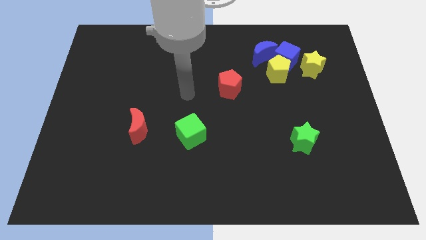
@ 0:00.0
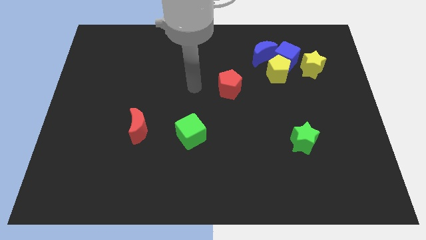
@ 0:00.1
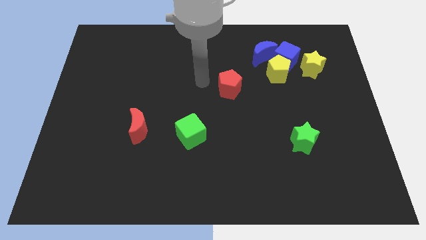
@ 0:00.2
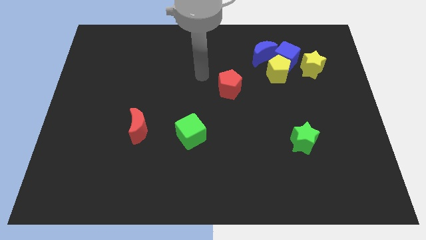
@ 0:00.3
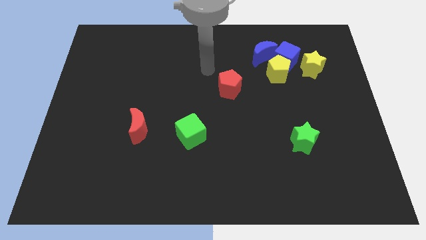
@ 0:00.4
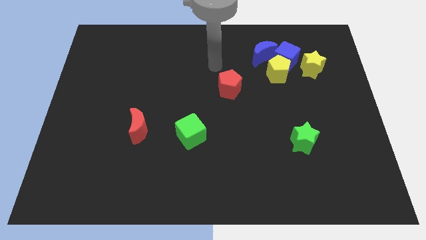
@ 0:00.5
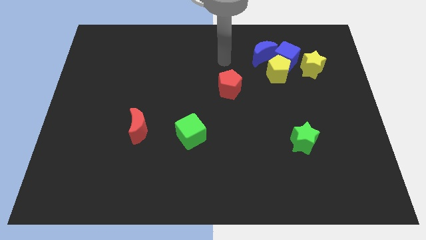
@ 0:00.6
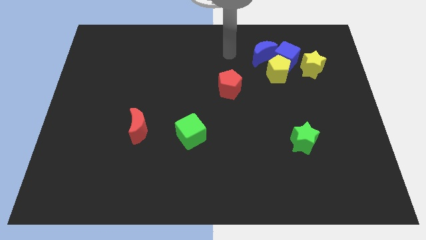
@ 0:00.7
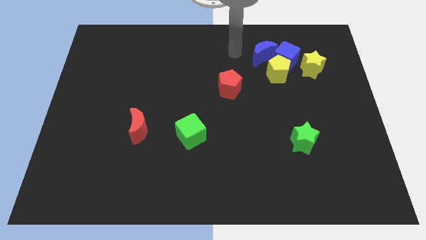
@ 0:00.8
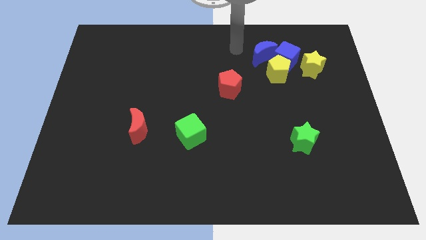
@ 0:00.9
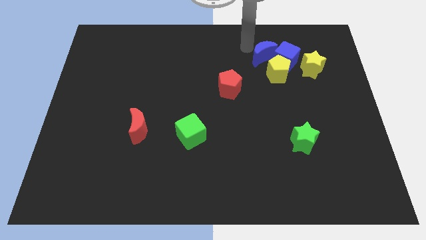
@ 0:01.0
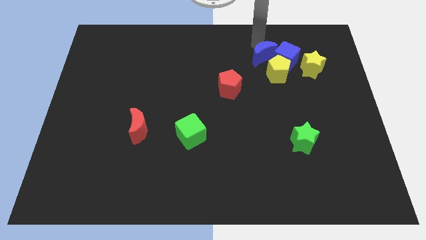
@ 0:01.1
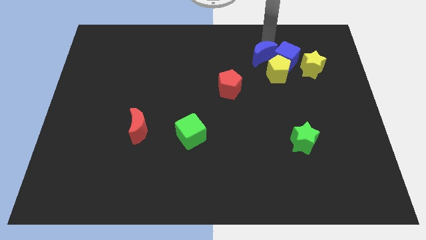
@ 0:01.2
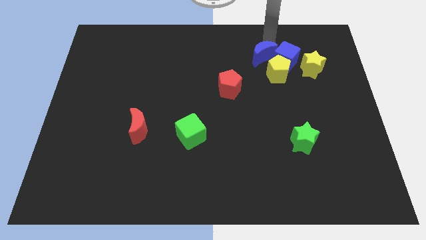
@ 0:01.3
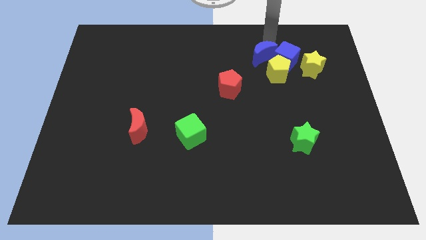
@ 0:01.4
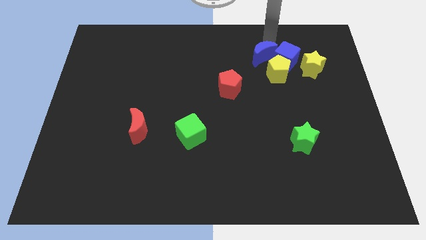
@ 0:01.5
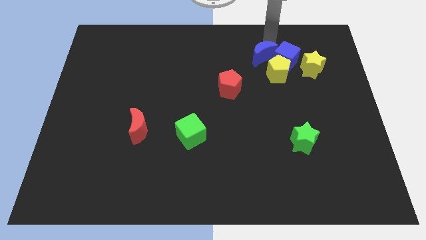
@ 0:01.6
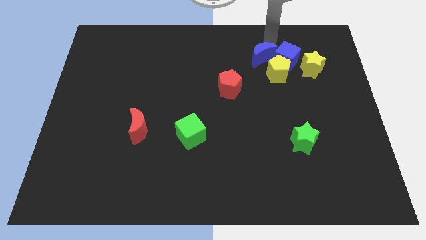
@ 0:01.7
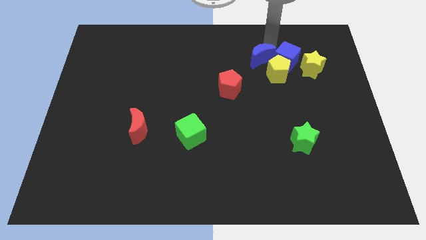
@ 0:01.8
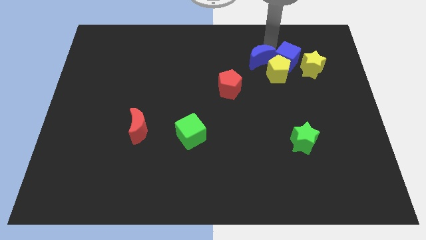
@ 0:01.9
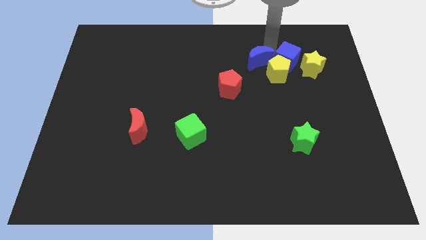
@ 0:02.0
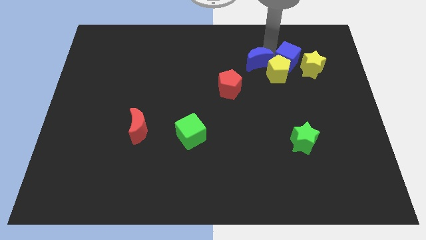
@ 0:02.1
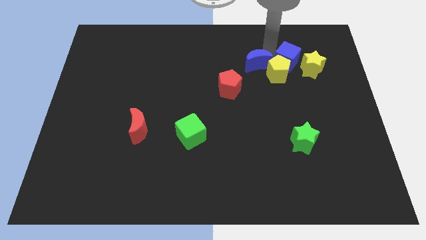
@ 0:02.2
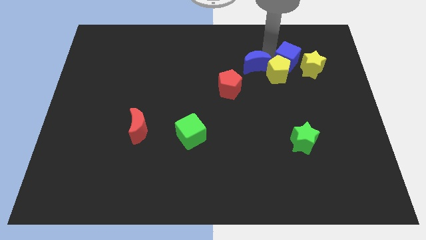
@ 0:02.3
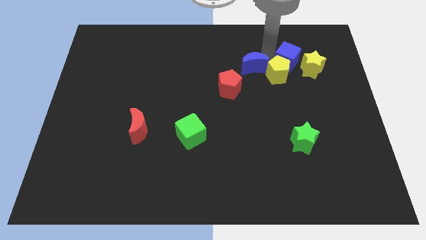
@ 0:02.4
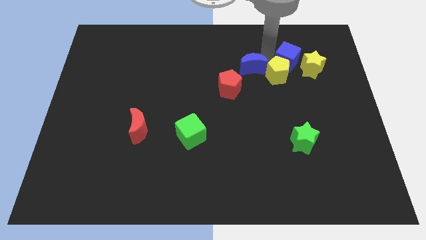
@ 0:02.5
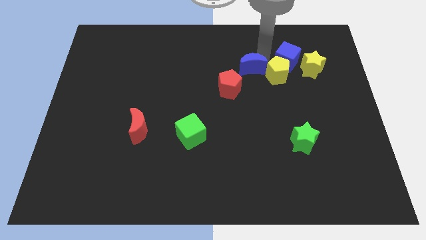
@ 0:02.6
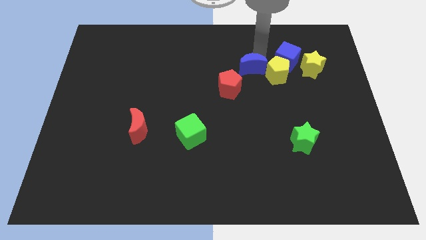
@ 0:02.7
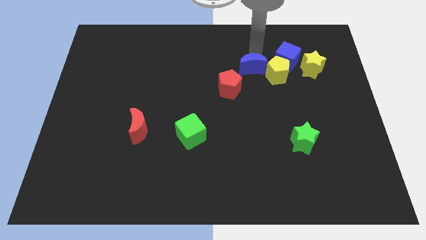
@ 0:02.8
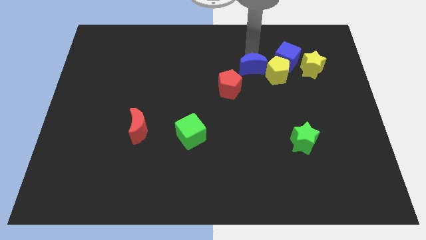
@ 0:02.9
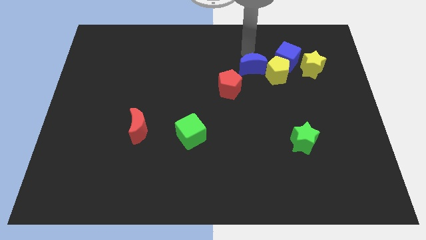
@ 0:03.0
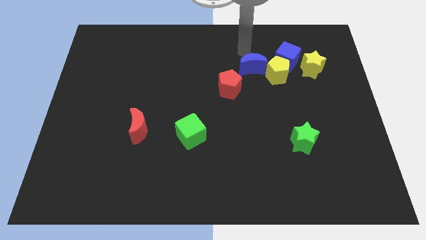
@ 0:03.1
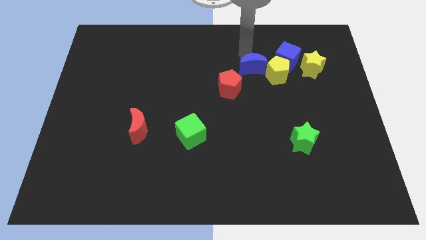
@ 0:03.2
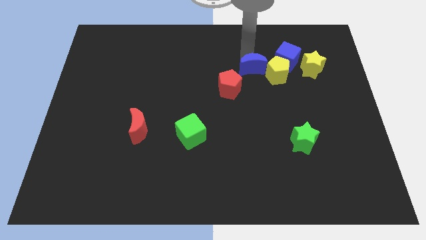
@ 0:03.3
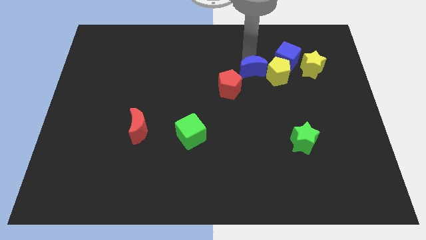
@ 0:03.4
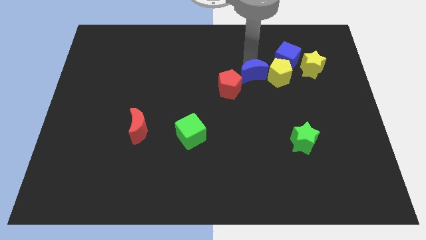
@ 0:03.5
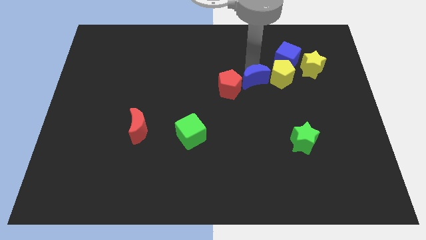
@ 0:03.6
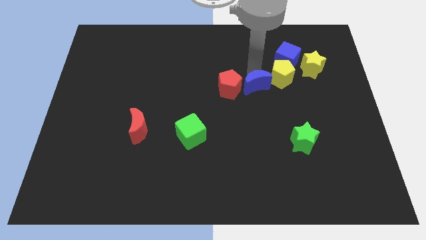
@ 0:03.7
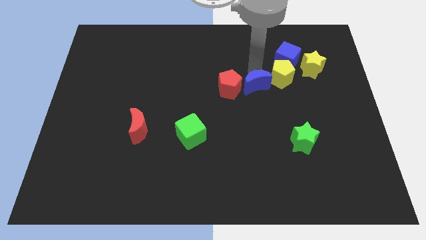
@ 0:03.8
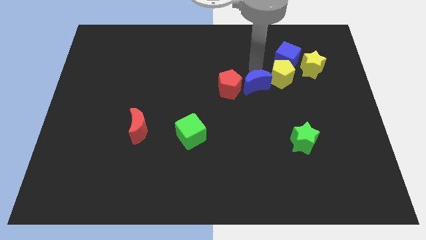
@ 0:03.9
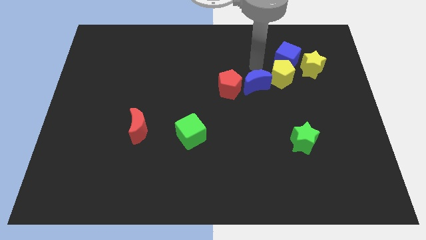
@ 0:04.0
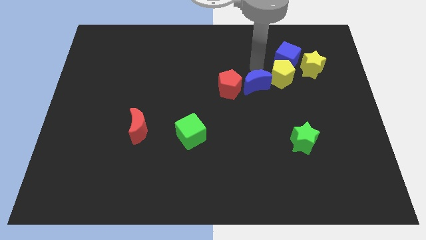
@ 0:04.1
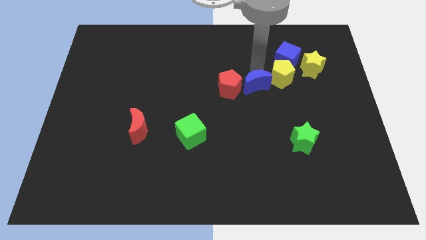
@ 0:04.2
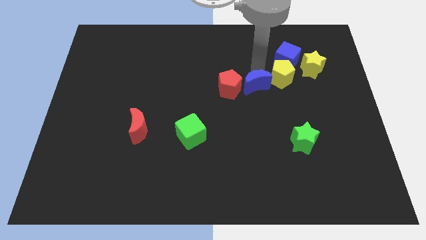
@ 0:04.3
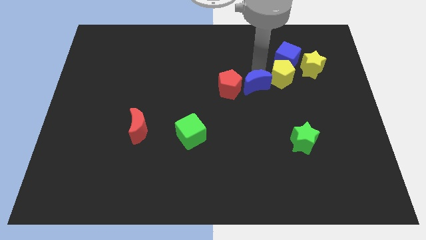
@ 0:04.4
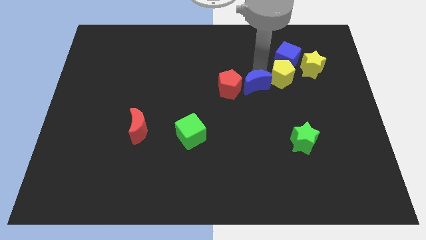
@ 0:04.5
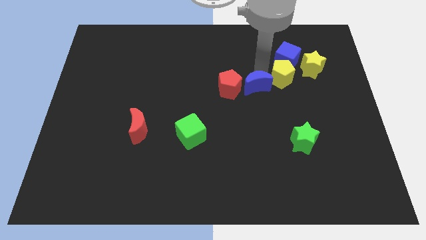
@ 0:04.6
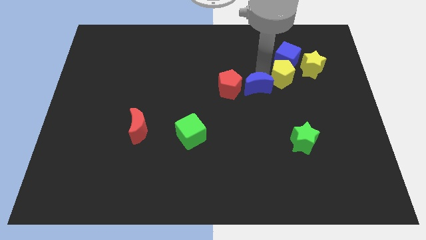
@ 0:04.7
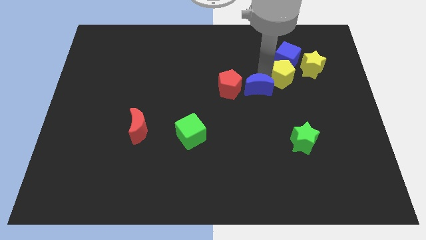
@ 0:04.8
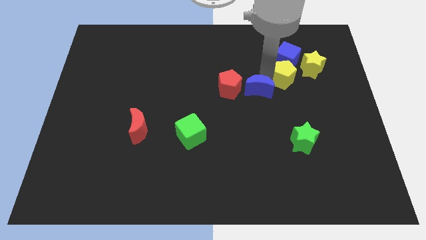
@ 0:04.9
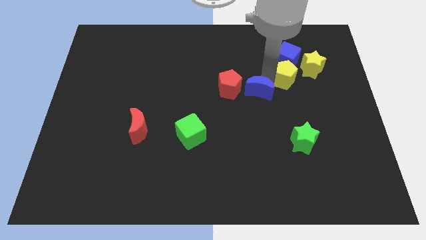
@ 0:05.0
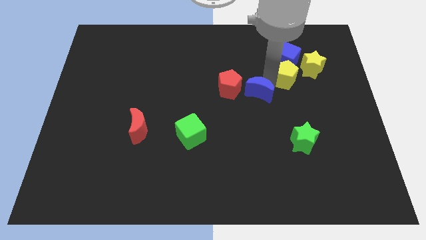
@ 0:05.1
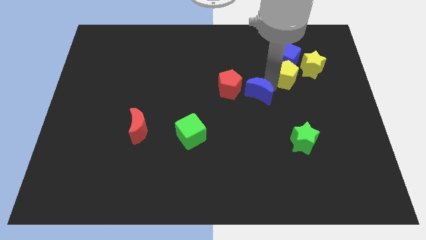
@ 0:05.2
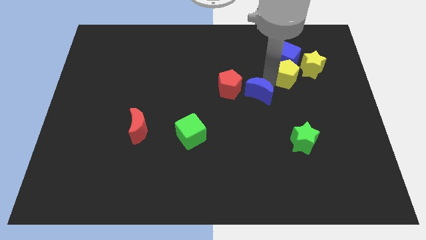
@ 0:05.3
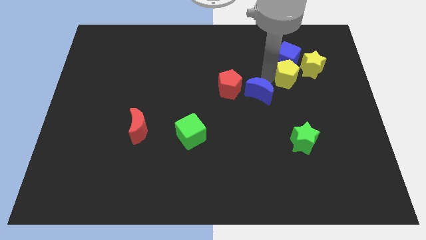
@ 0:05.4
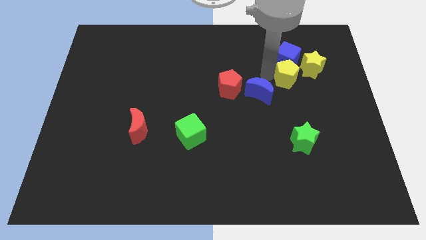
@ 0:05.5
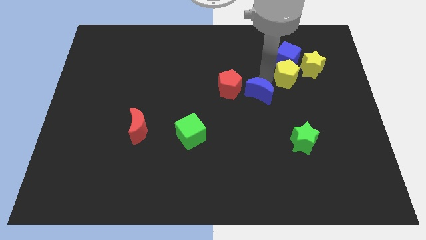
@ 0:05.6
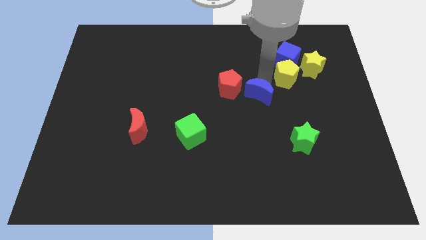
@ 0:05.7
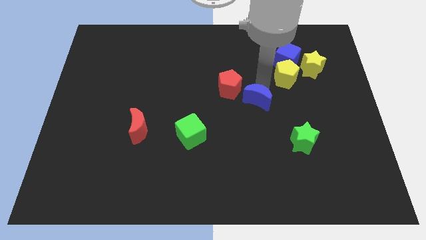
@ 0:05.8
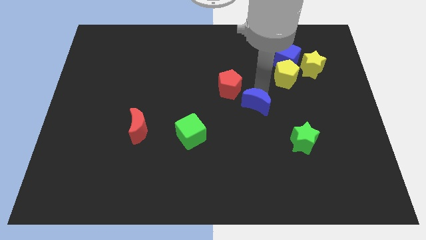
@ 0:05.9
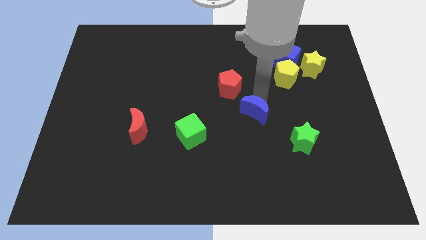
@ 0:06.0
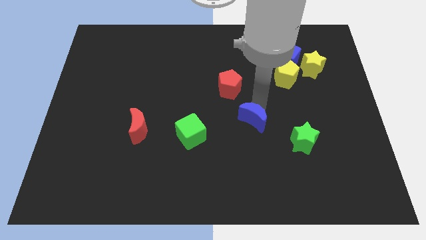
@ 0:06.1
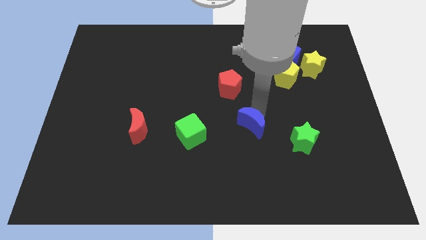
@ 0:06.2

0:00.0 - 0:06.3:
move the blue moon to the right of the green cube

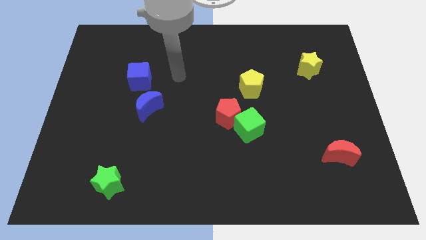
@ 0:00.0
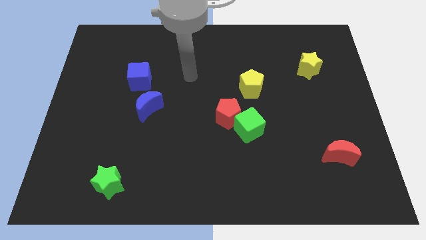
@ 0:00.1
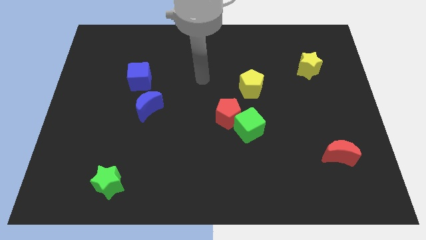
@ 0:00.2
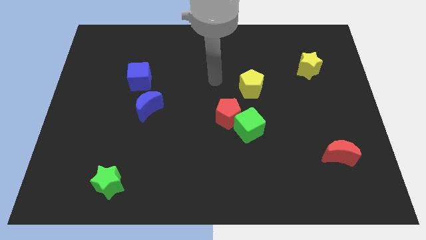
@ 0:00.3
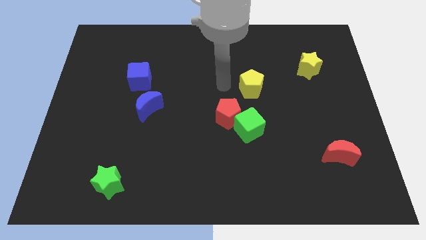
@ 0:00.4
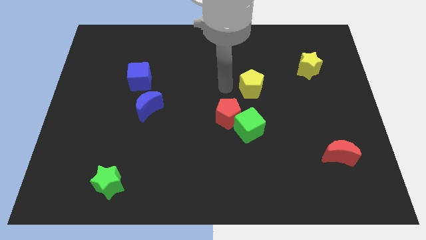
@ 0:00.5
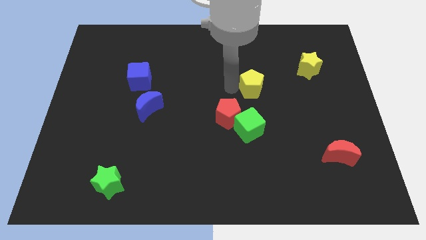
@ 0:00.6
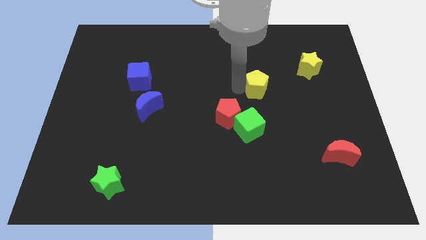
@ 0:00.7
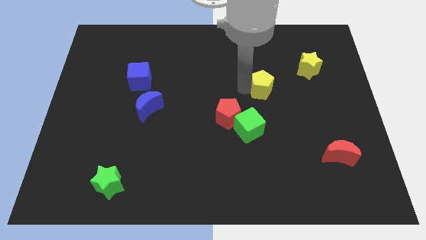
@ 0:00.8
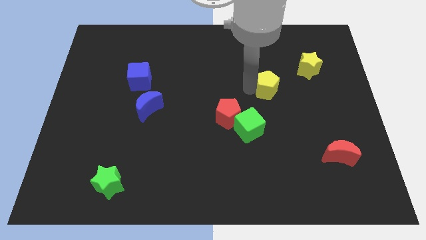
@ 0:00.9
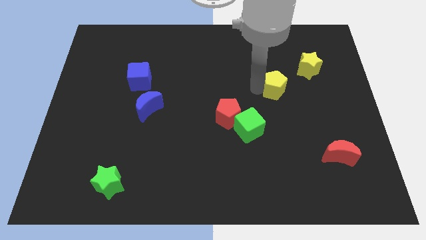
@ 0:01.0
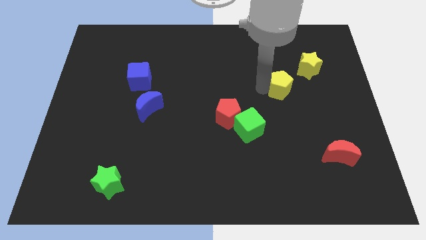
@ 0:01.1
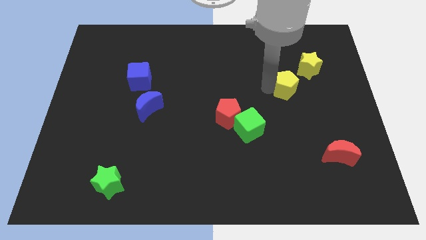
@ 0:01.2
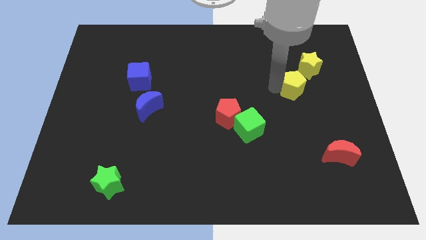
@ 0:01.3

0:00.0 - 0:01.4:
push the yellow pentagon to the bottom of the yellow star

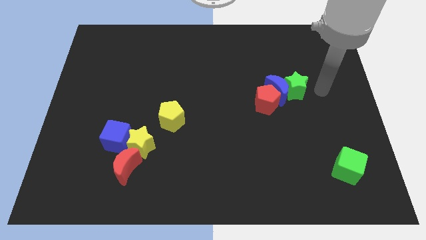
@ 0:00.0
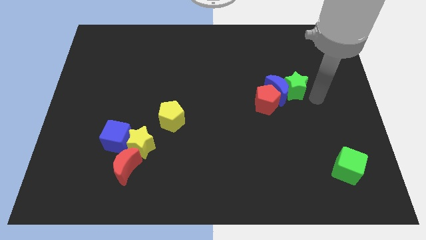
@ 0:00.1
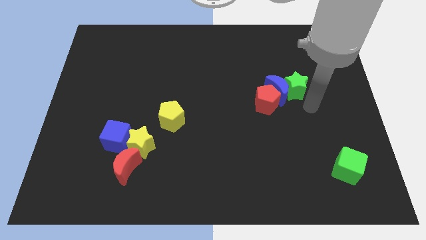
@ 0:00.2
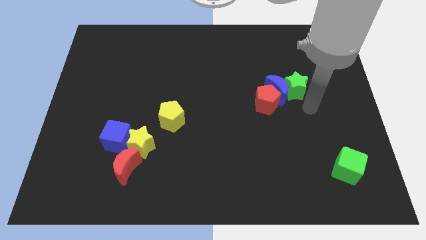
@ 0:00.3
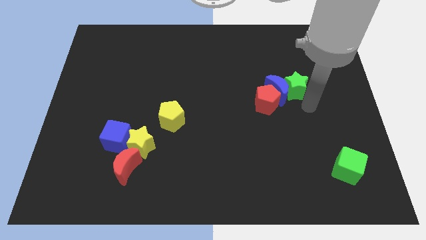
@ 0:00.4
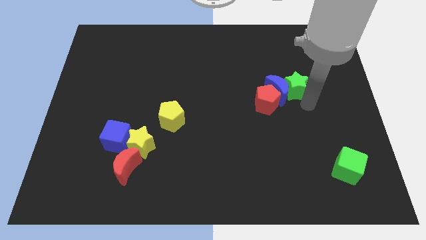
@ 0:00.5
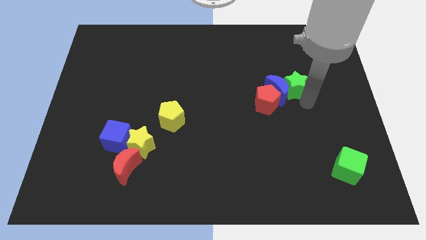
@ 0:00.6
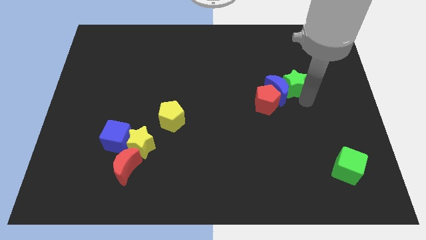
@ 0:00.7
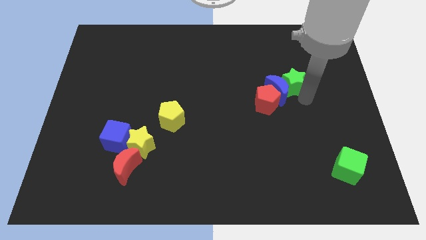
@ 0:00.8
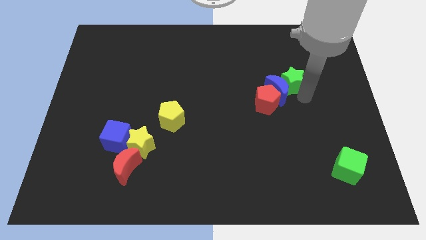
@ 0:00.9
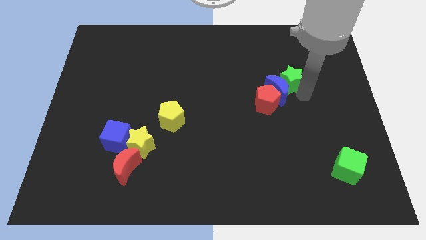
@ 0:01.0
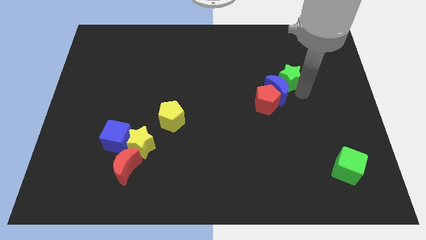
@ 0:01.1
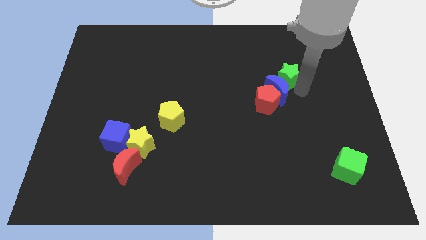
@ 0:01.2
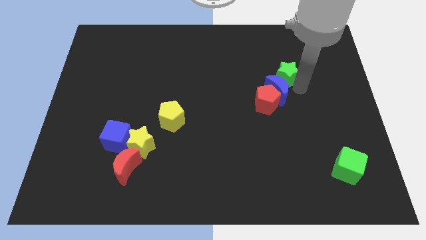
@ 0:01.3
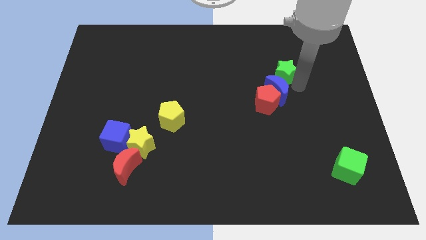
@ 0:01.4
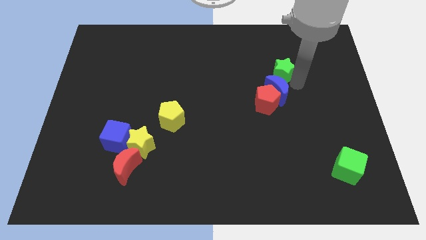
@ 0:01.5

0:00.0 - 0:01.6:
put the green star above the red pentagon
